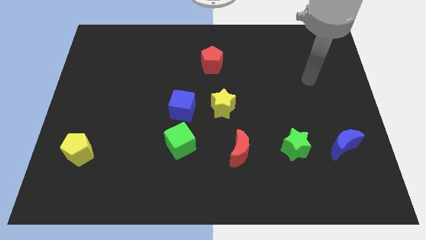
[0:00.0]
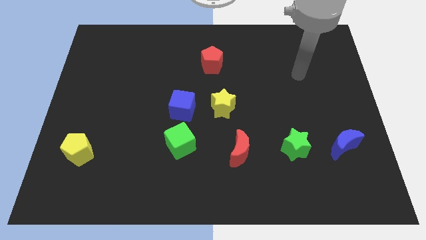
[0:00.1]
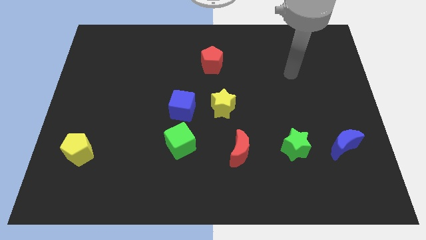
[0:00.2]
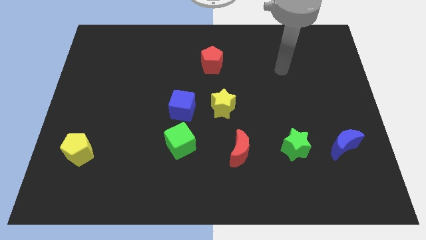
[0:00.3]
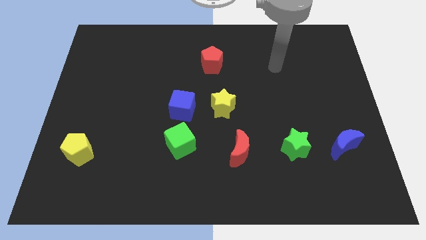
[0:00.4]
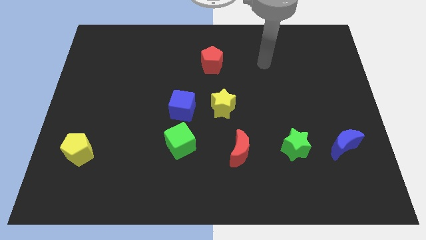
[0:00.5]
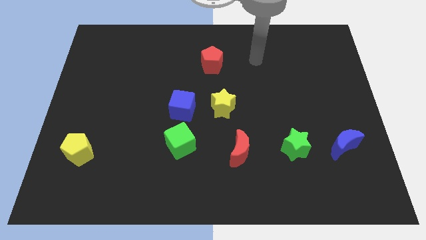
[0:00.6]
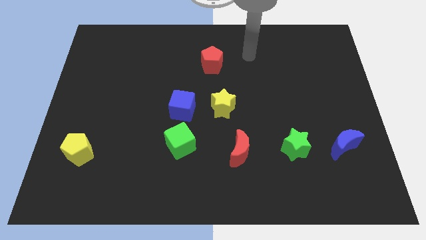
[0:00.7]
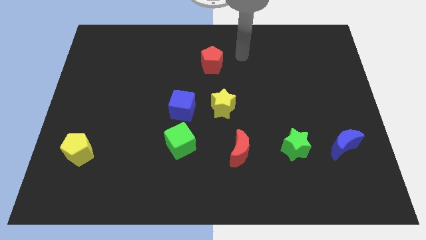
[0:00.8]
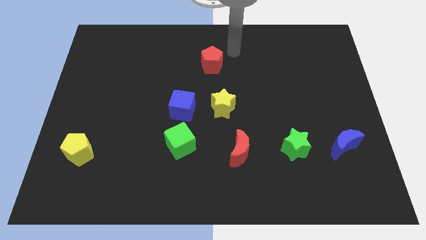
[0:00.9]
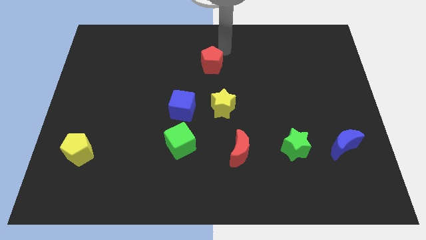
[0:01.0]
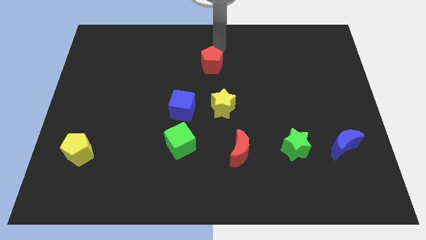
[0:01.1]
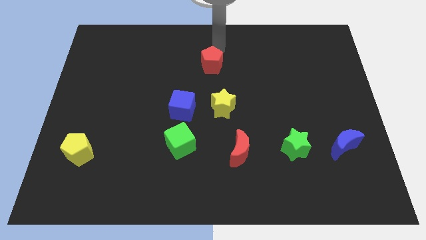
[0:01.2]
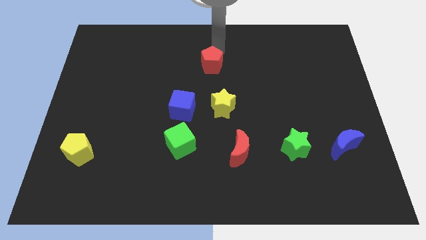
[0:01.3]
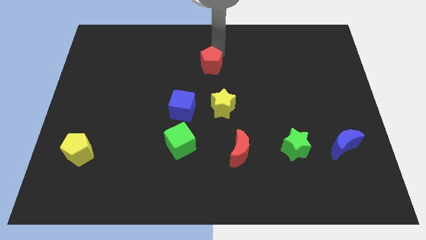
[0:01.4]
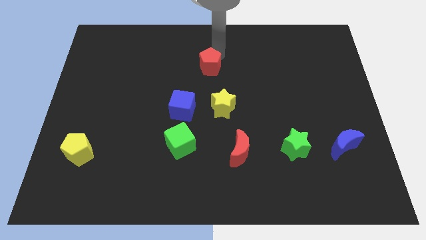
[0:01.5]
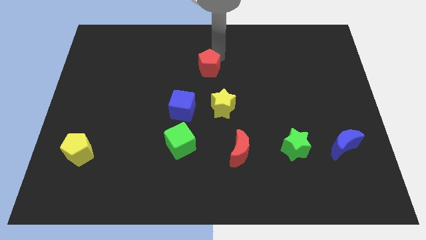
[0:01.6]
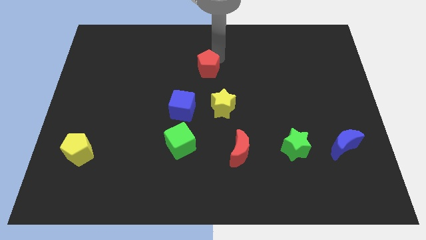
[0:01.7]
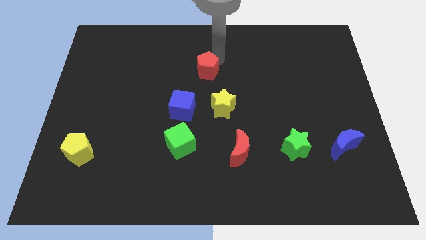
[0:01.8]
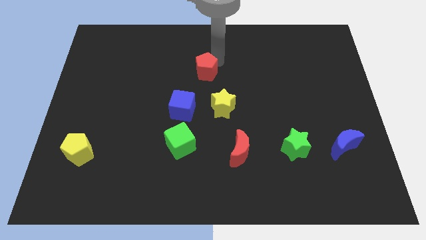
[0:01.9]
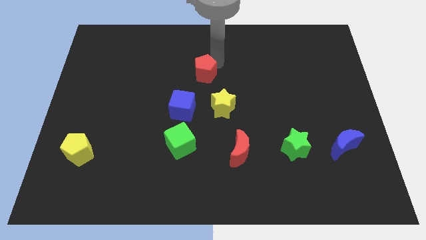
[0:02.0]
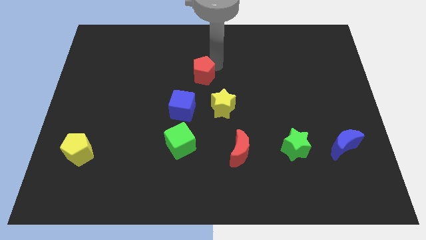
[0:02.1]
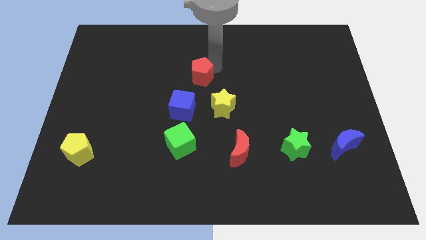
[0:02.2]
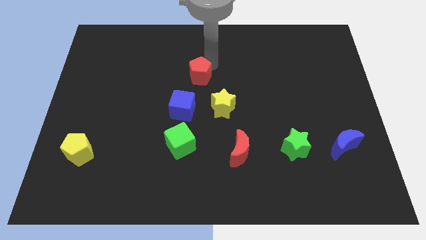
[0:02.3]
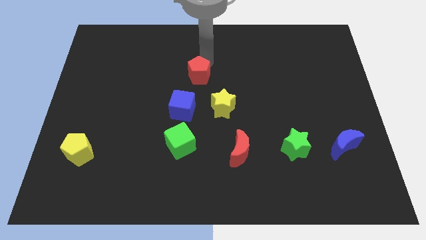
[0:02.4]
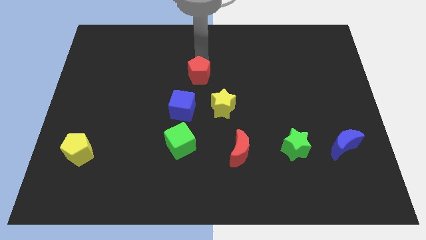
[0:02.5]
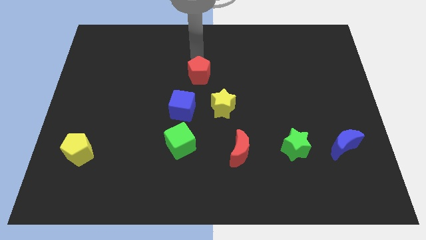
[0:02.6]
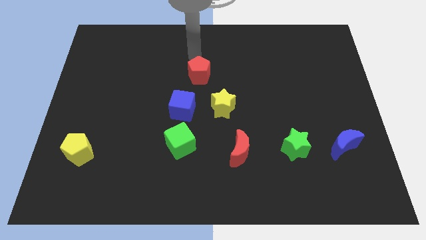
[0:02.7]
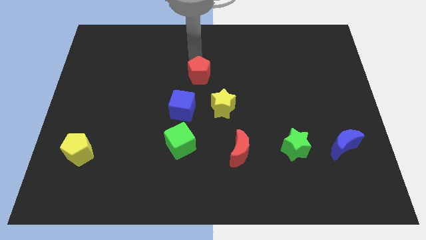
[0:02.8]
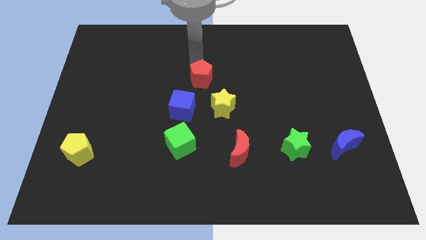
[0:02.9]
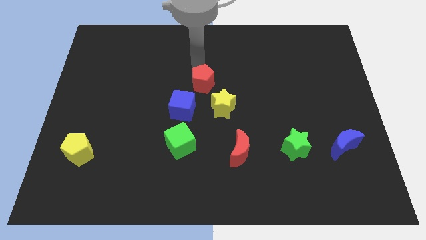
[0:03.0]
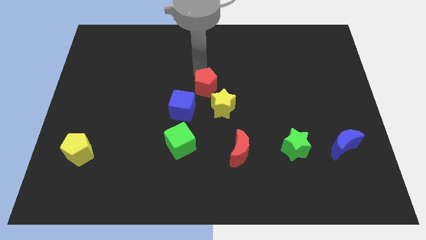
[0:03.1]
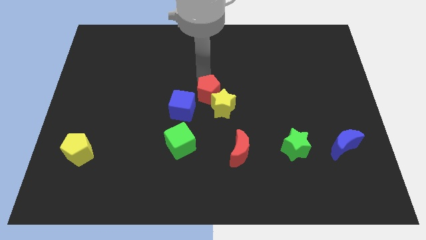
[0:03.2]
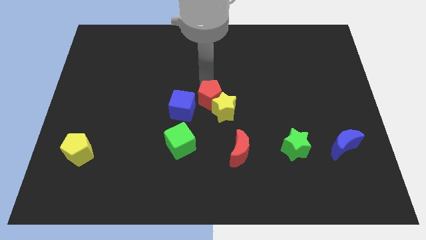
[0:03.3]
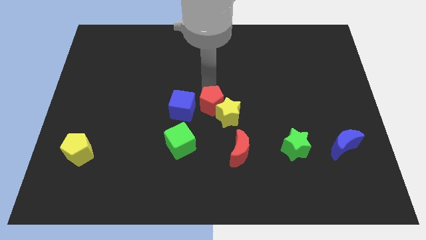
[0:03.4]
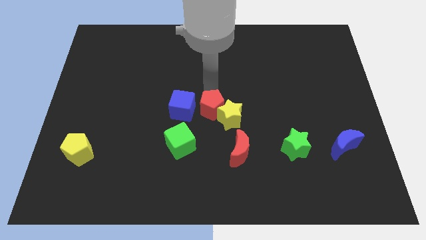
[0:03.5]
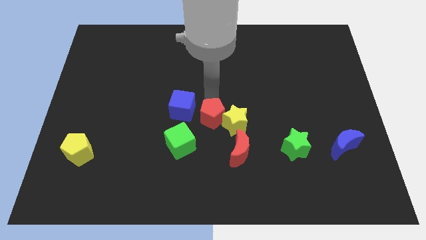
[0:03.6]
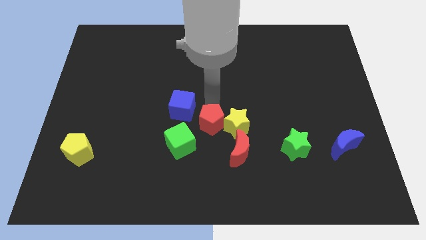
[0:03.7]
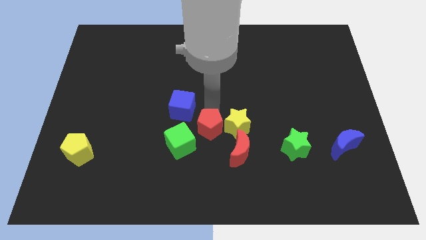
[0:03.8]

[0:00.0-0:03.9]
push the red pentagon downwards

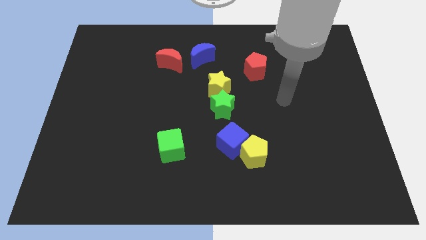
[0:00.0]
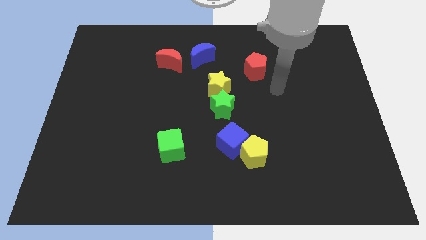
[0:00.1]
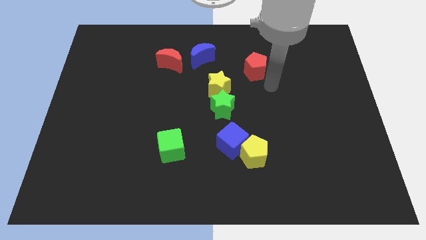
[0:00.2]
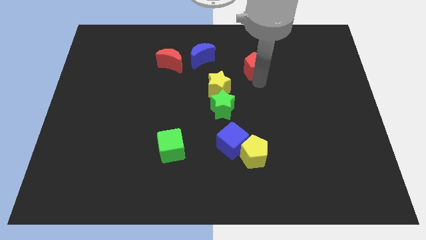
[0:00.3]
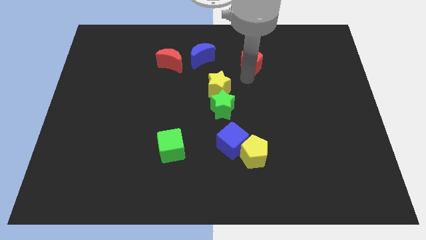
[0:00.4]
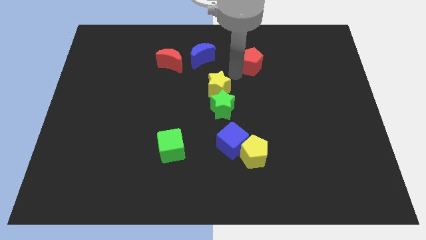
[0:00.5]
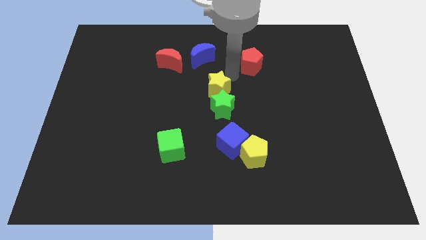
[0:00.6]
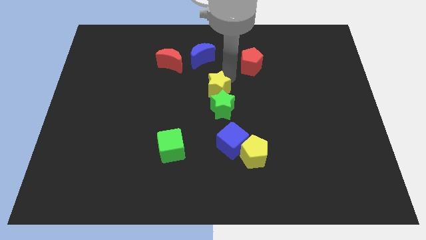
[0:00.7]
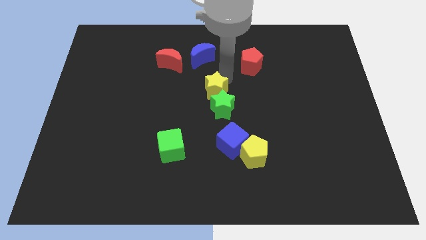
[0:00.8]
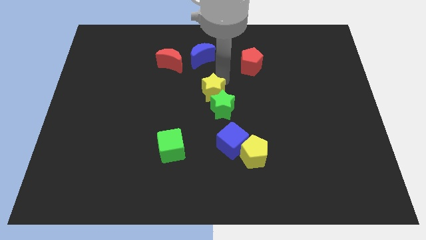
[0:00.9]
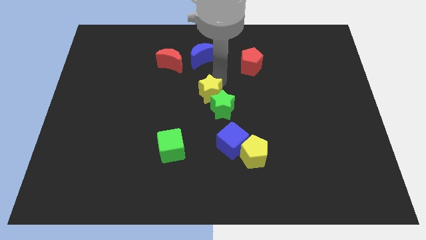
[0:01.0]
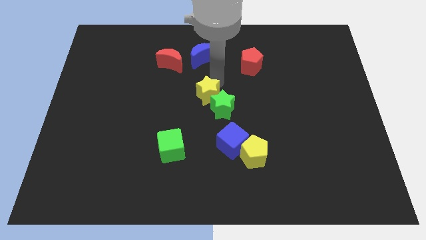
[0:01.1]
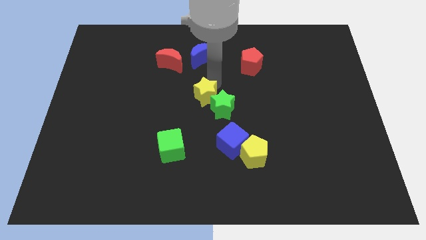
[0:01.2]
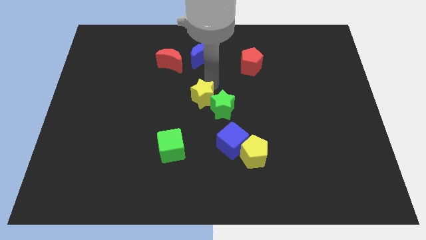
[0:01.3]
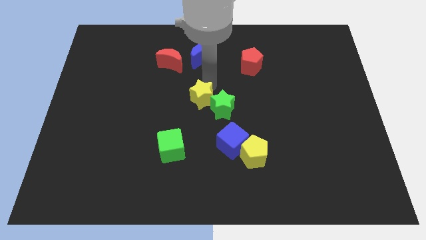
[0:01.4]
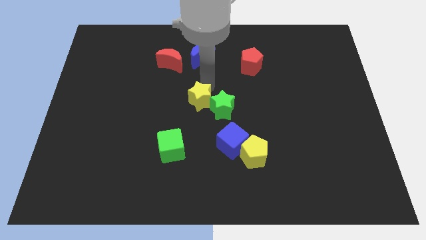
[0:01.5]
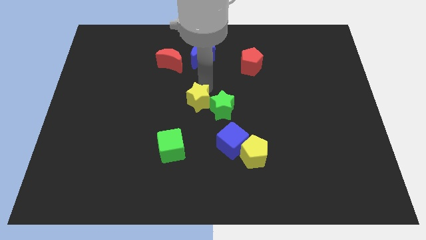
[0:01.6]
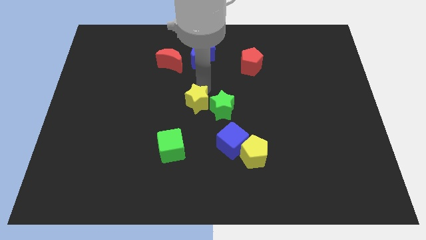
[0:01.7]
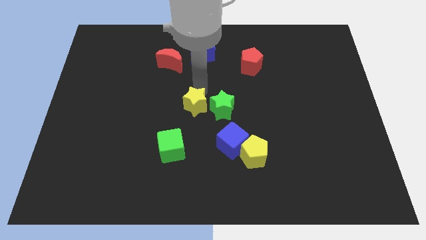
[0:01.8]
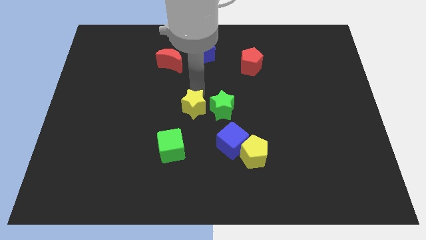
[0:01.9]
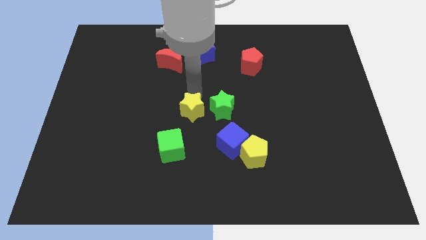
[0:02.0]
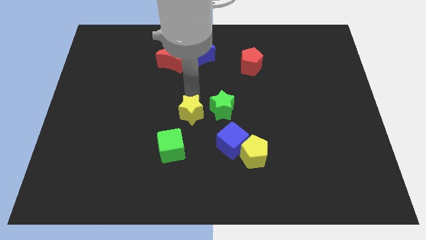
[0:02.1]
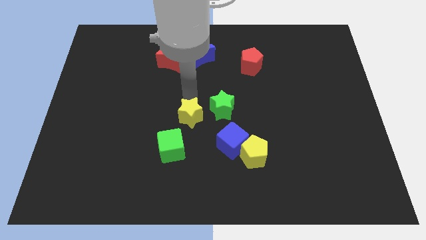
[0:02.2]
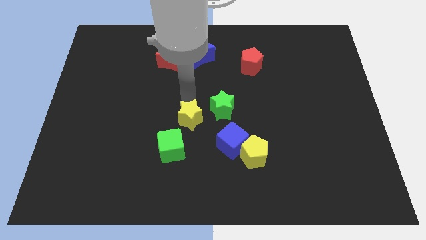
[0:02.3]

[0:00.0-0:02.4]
push the yellow star a little bit downwards

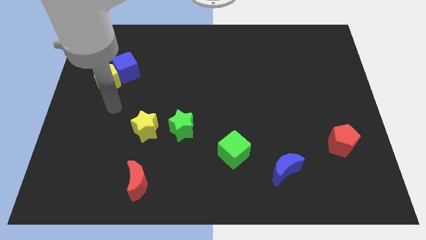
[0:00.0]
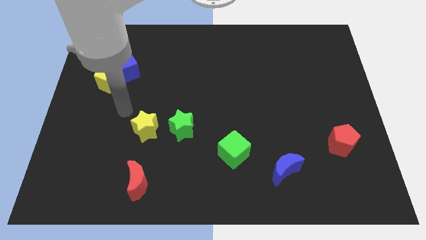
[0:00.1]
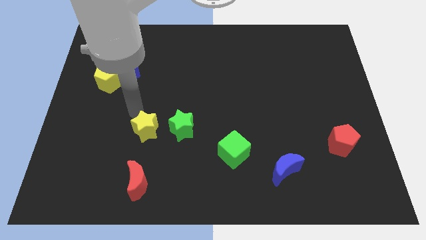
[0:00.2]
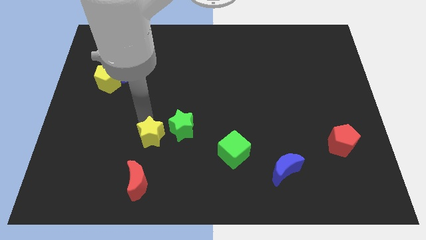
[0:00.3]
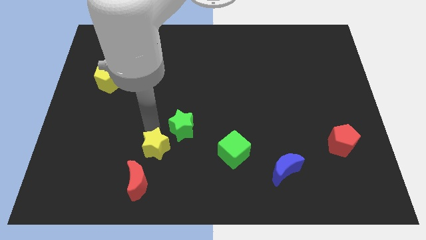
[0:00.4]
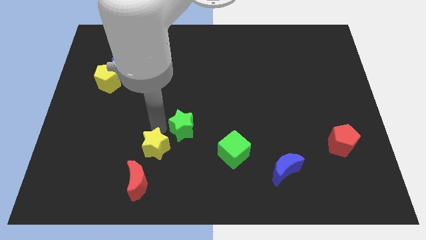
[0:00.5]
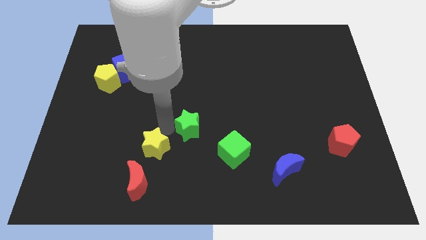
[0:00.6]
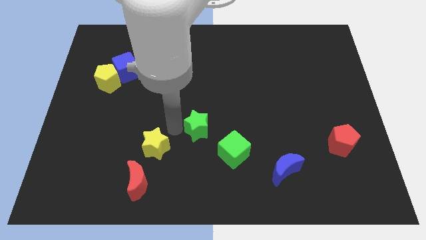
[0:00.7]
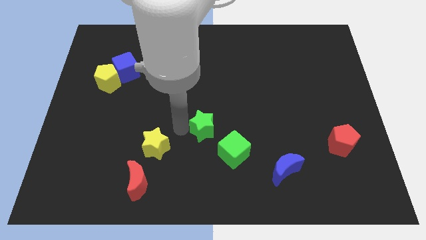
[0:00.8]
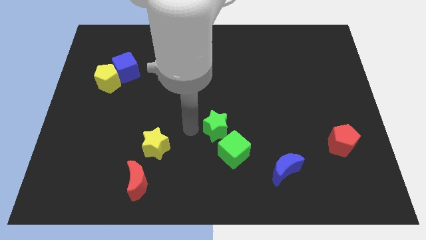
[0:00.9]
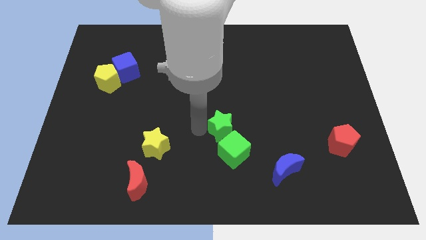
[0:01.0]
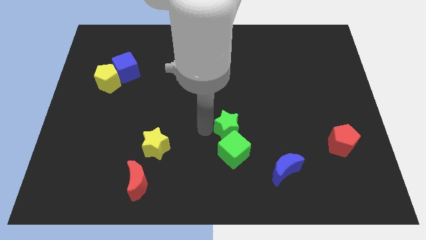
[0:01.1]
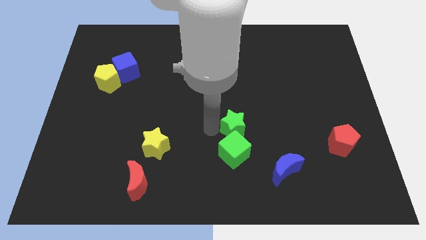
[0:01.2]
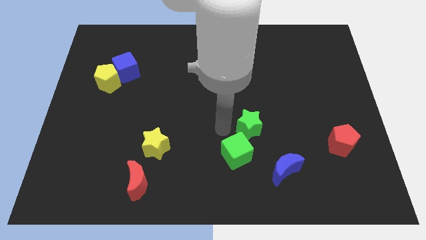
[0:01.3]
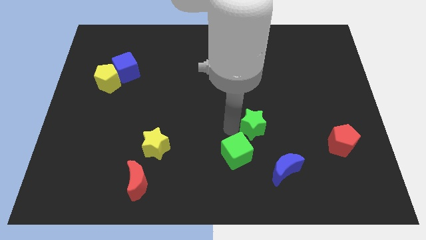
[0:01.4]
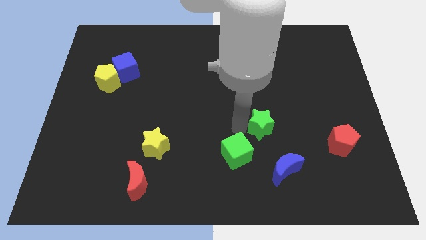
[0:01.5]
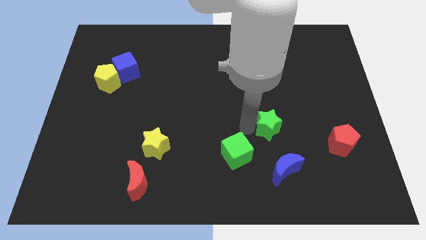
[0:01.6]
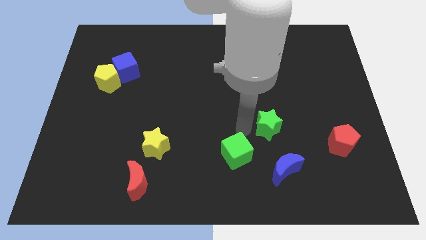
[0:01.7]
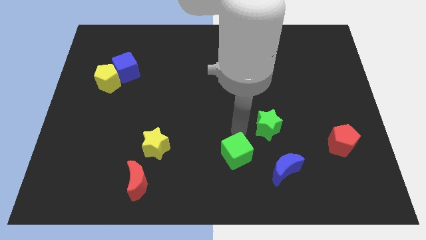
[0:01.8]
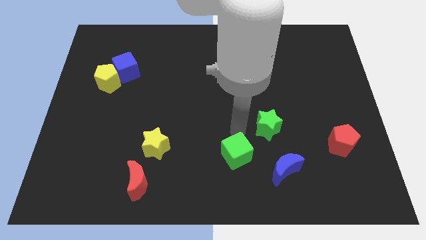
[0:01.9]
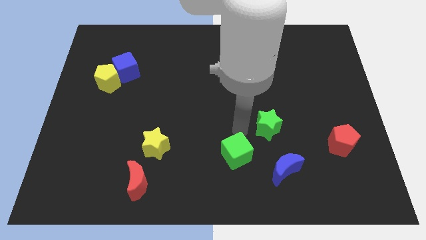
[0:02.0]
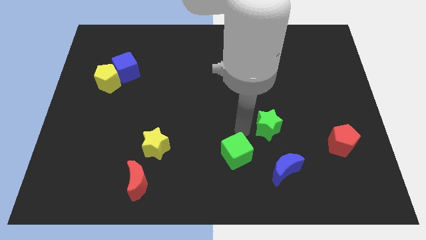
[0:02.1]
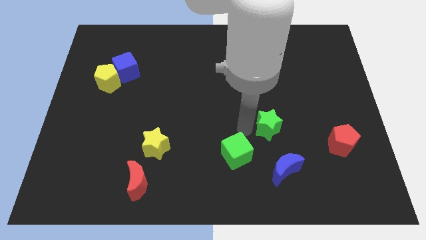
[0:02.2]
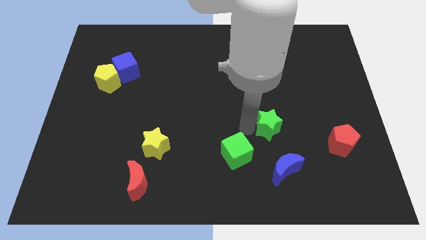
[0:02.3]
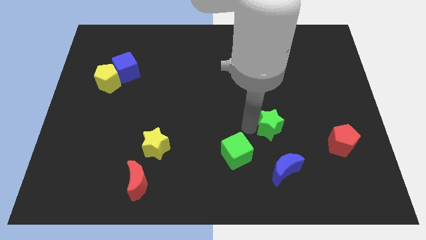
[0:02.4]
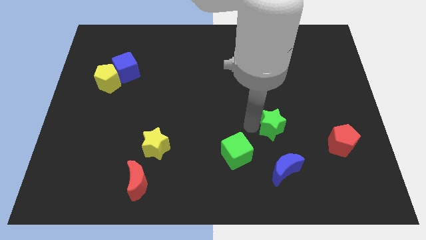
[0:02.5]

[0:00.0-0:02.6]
push the green star to the right
